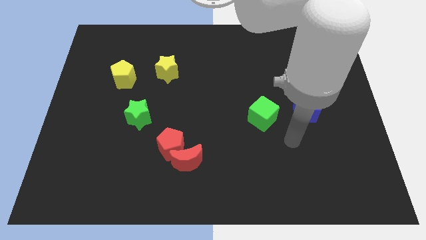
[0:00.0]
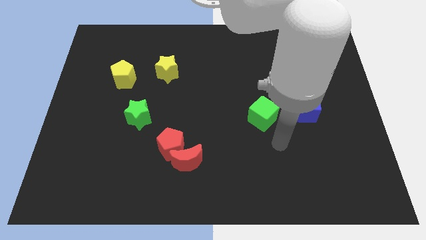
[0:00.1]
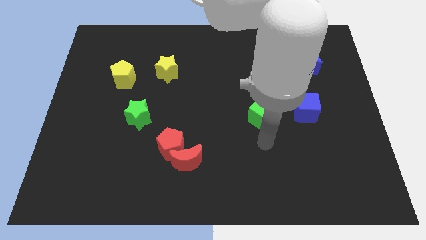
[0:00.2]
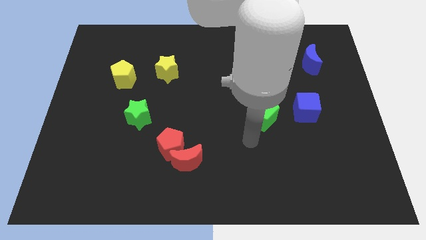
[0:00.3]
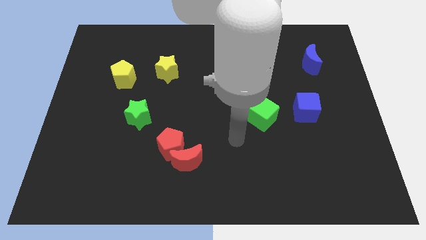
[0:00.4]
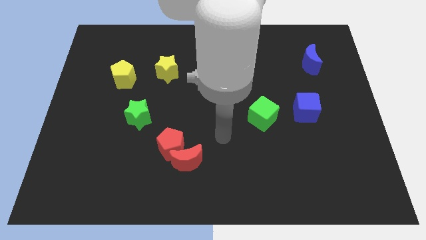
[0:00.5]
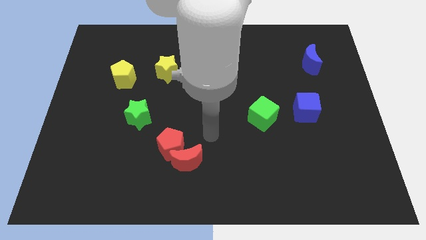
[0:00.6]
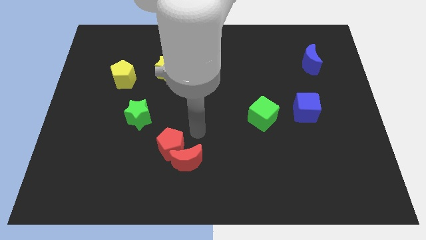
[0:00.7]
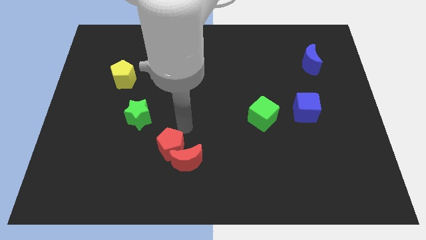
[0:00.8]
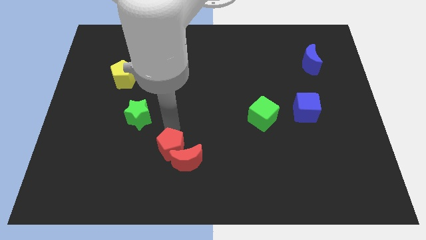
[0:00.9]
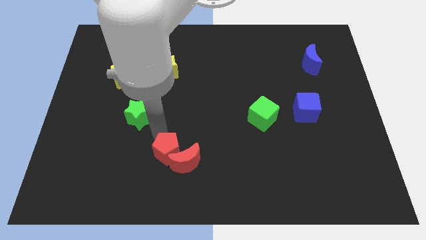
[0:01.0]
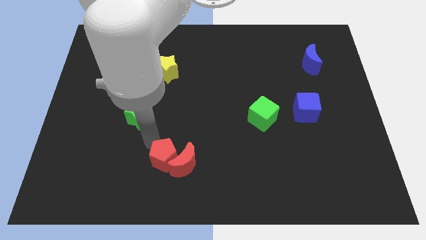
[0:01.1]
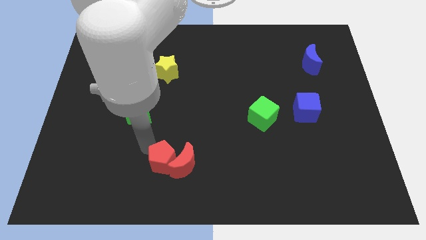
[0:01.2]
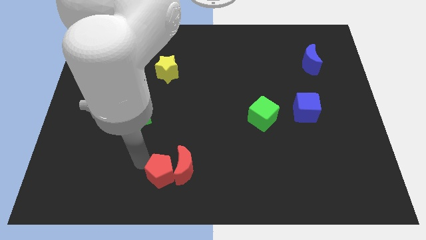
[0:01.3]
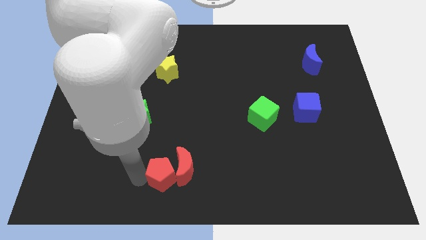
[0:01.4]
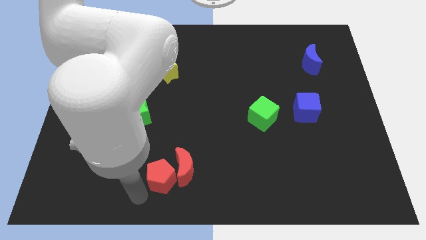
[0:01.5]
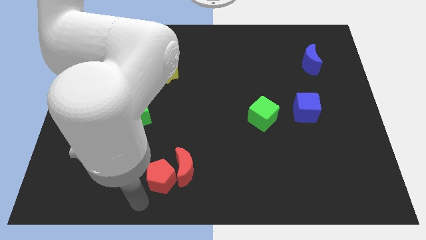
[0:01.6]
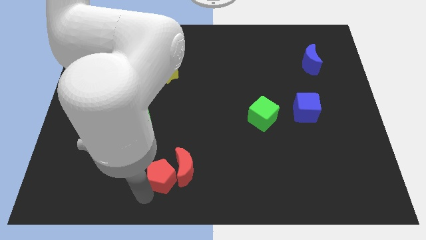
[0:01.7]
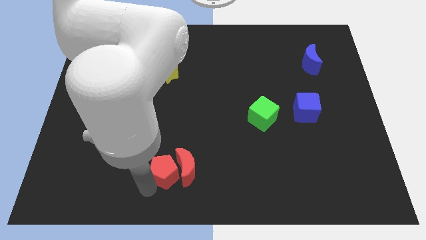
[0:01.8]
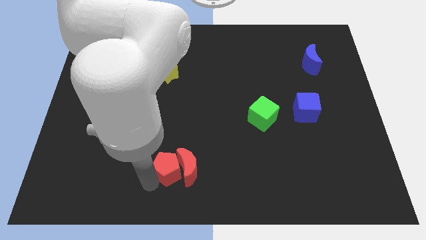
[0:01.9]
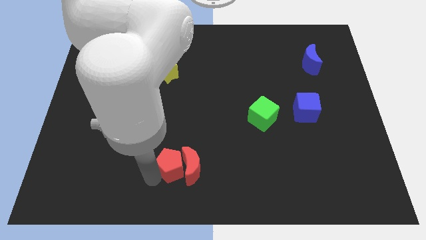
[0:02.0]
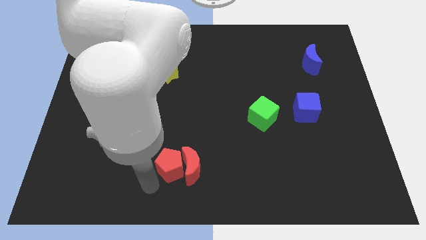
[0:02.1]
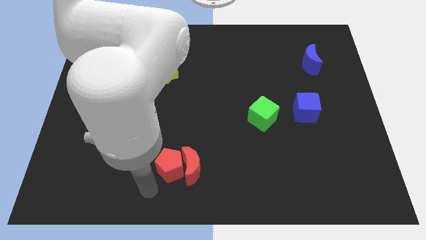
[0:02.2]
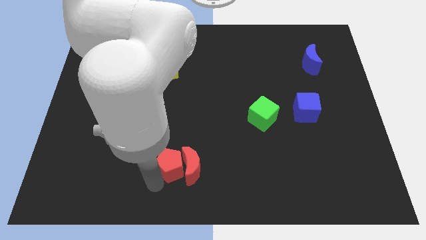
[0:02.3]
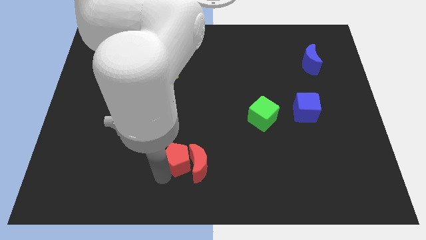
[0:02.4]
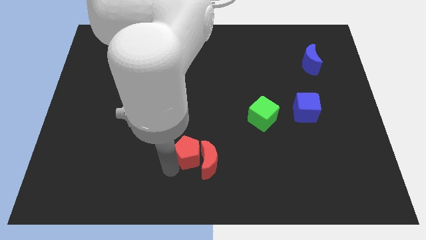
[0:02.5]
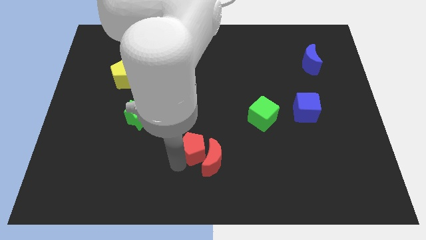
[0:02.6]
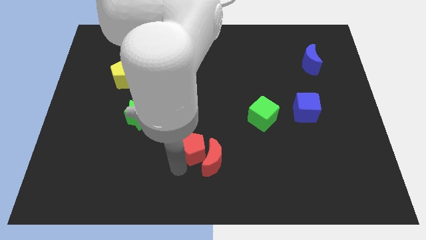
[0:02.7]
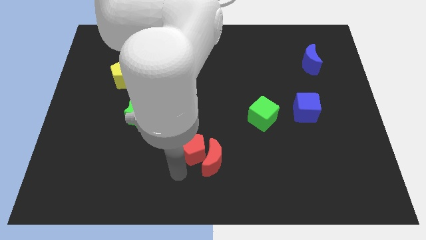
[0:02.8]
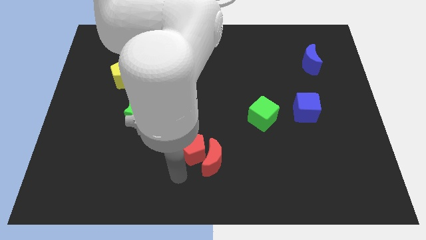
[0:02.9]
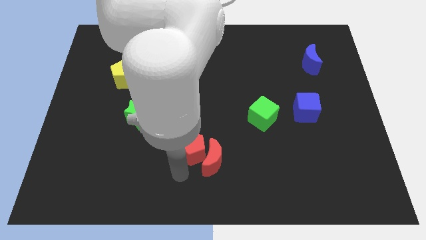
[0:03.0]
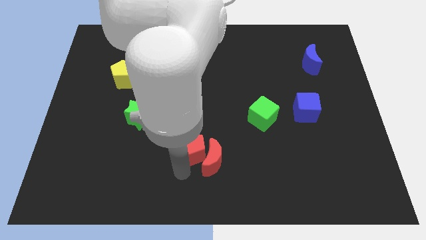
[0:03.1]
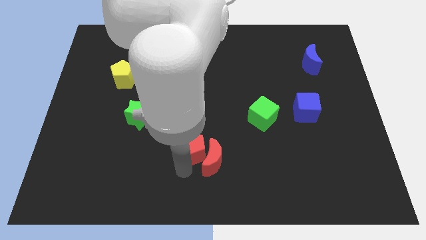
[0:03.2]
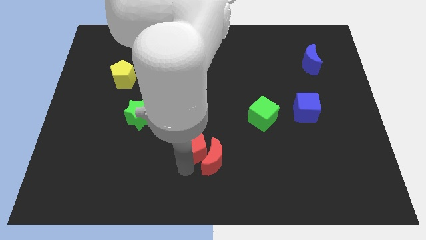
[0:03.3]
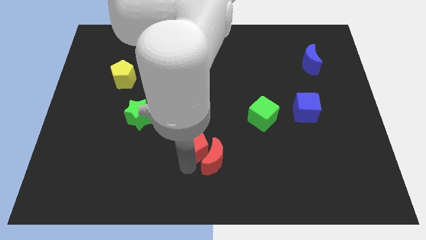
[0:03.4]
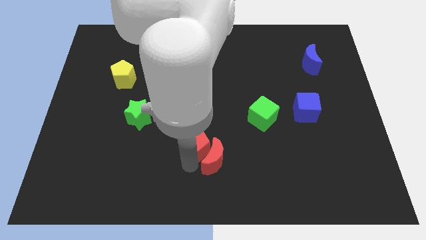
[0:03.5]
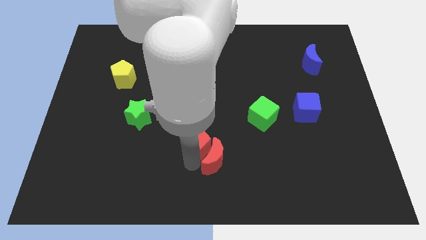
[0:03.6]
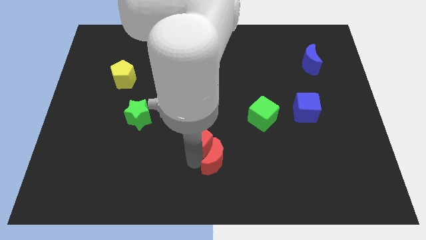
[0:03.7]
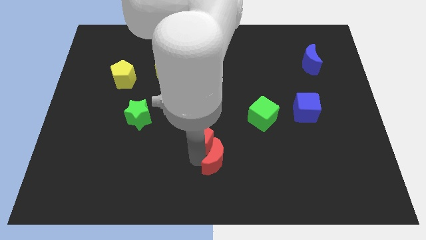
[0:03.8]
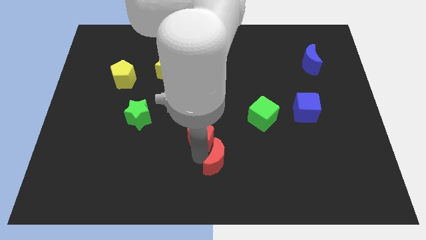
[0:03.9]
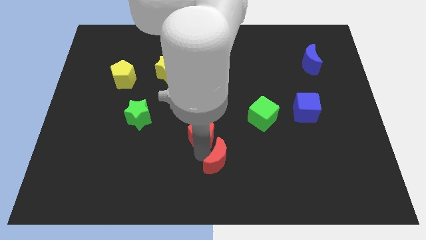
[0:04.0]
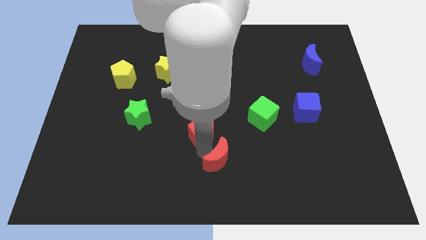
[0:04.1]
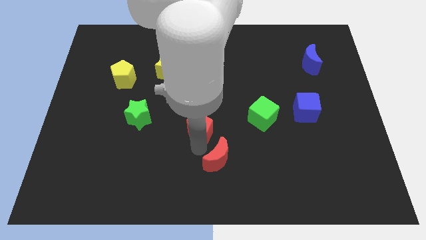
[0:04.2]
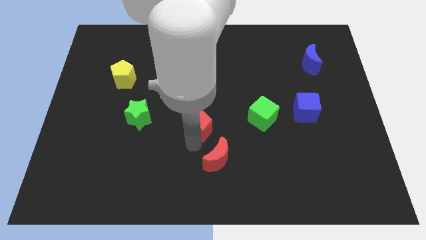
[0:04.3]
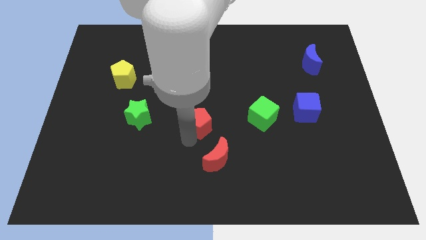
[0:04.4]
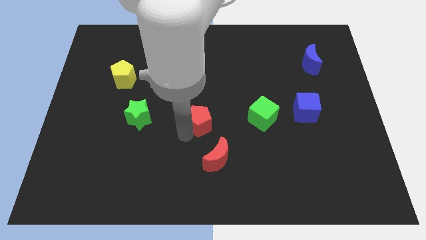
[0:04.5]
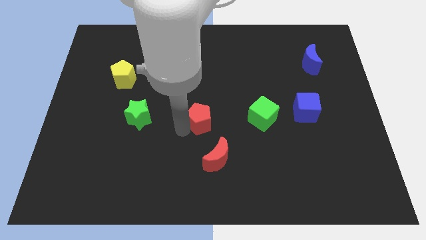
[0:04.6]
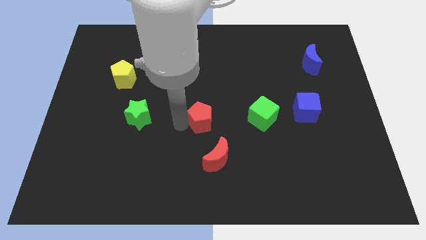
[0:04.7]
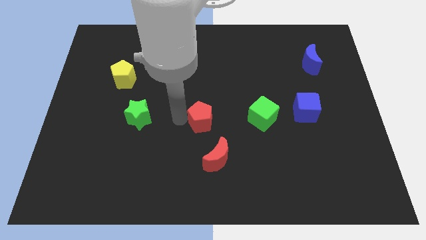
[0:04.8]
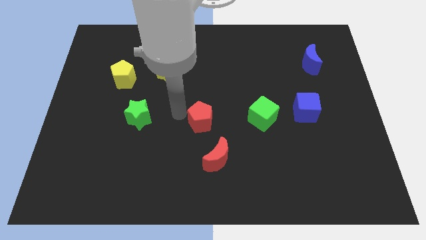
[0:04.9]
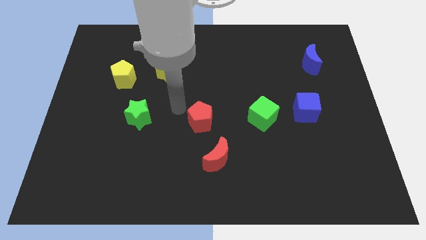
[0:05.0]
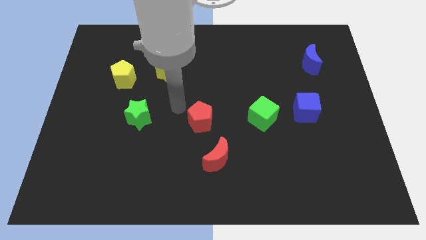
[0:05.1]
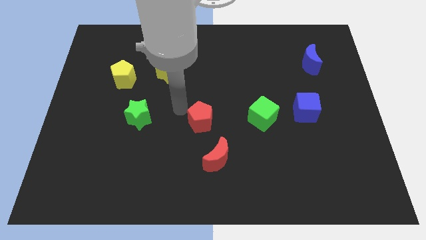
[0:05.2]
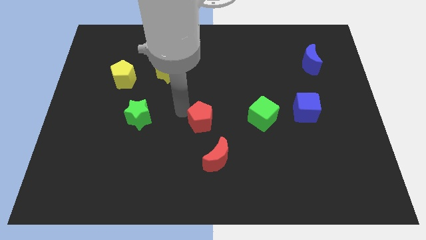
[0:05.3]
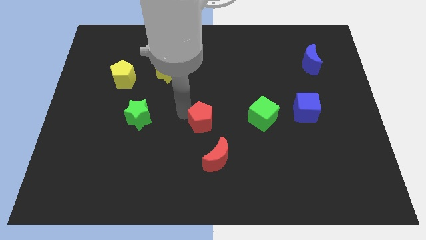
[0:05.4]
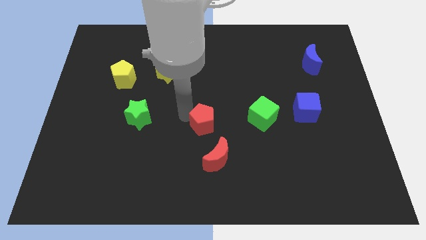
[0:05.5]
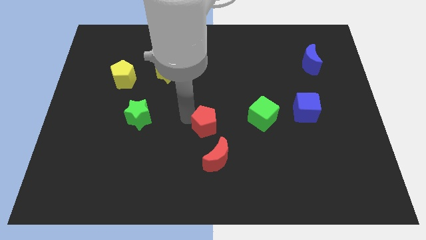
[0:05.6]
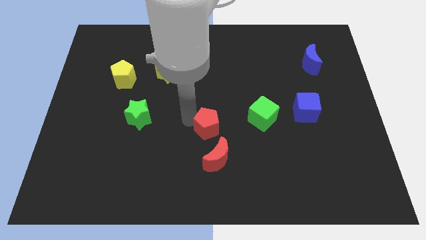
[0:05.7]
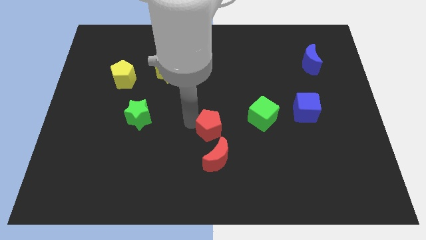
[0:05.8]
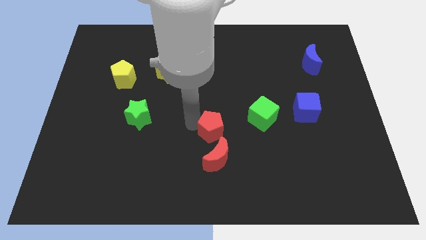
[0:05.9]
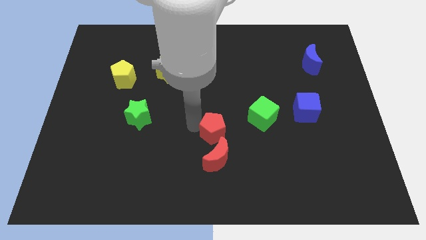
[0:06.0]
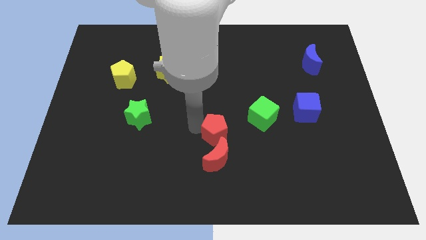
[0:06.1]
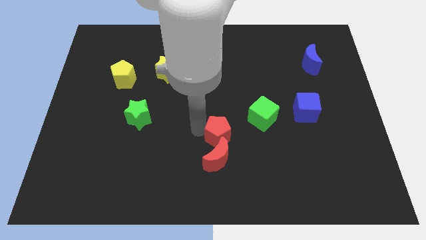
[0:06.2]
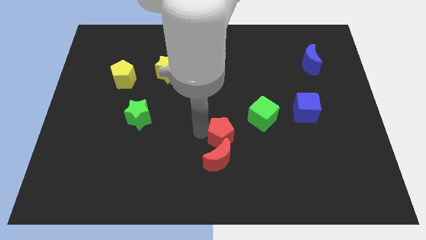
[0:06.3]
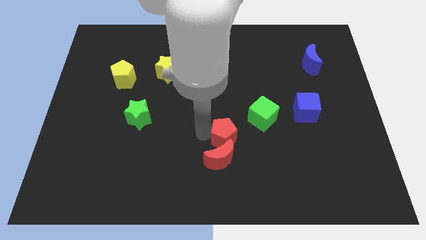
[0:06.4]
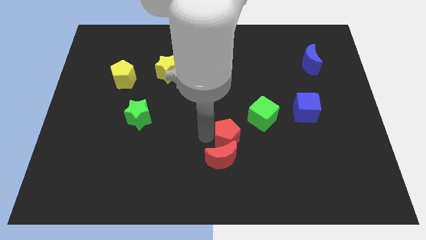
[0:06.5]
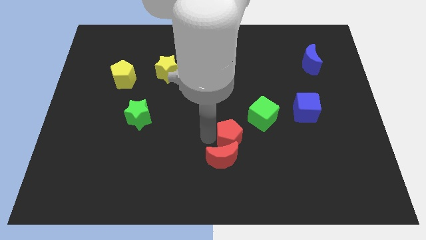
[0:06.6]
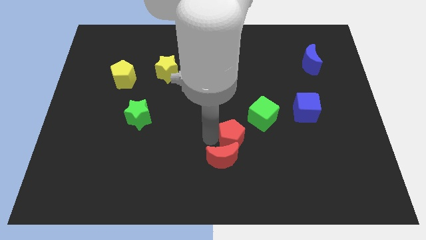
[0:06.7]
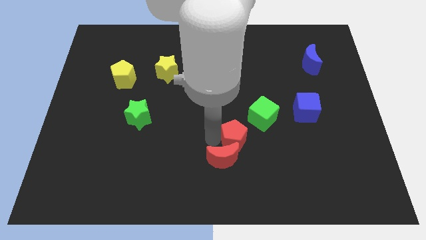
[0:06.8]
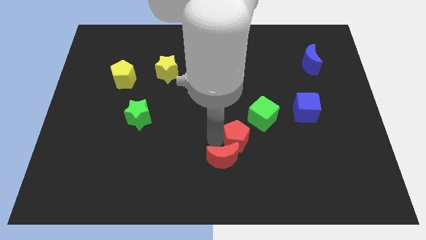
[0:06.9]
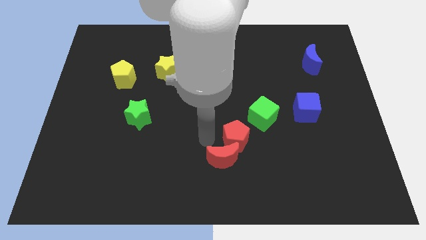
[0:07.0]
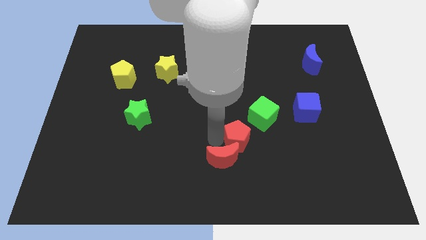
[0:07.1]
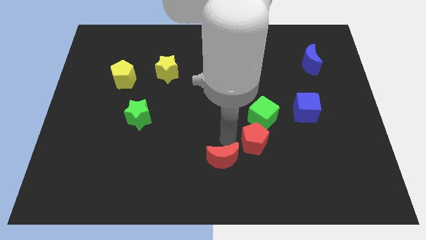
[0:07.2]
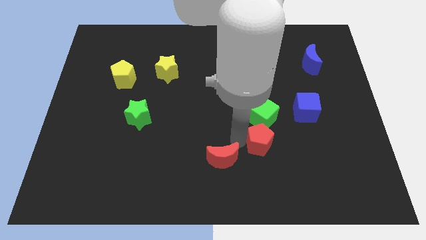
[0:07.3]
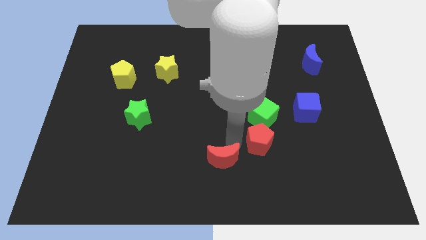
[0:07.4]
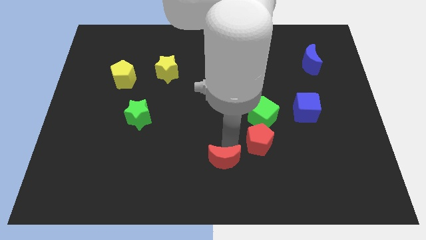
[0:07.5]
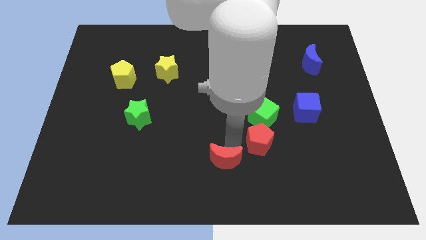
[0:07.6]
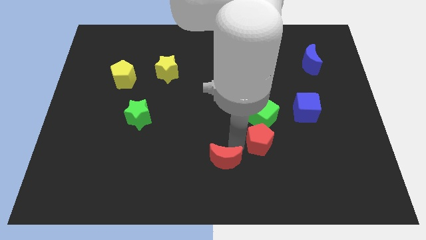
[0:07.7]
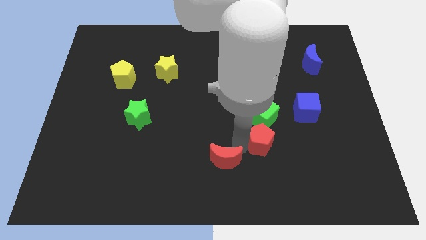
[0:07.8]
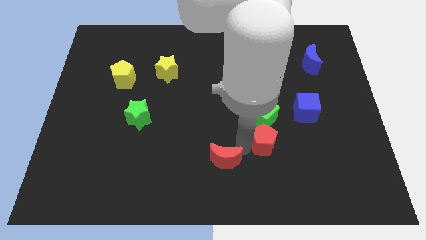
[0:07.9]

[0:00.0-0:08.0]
slide the red pentagon right

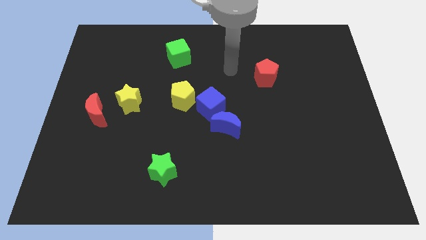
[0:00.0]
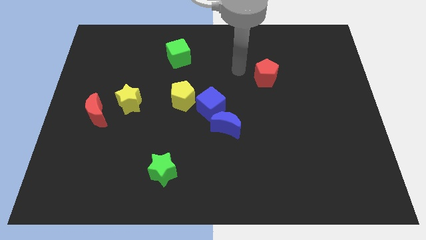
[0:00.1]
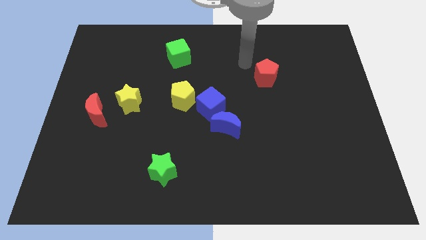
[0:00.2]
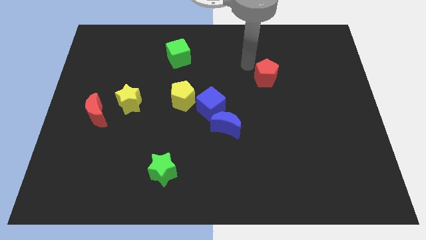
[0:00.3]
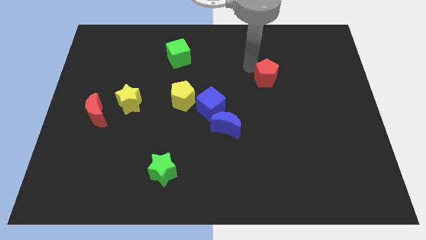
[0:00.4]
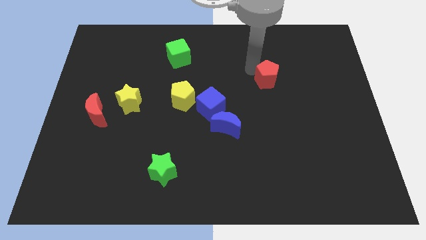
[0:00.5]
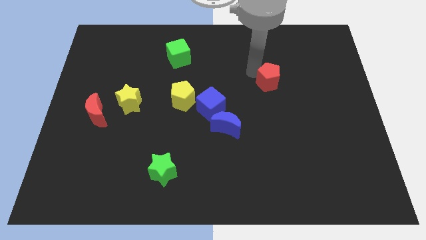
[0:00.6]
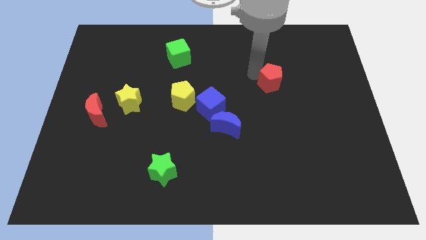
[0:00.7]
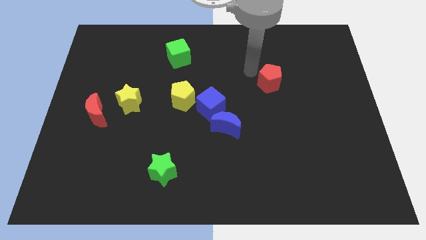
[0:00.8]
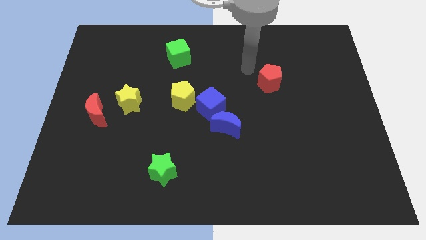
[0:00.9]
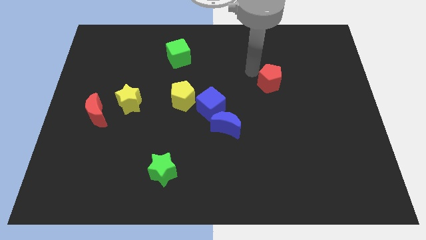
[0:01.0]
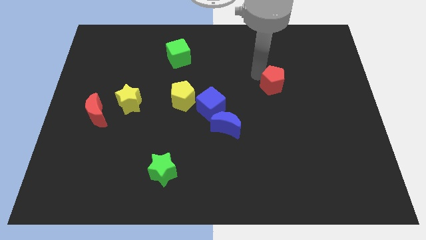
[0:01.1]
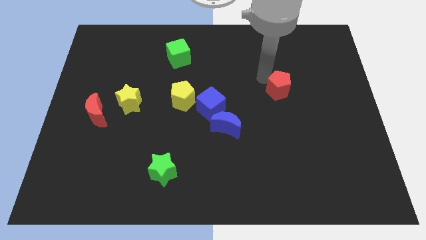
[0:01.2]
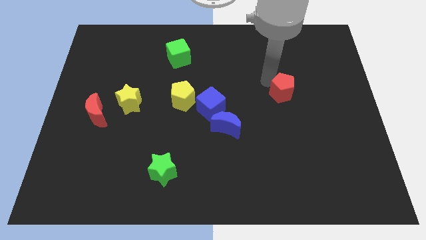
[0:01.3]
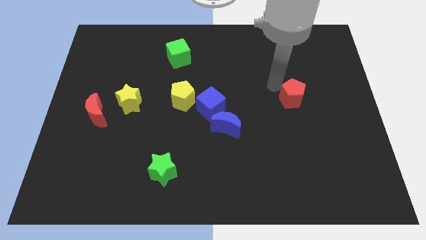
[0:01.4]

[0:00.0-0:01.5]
push the red pentagon diagonally downwards and right slightly
